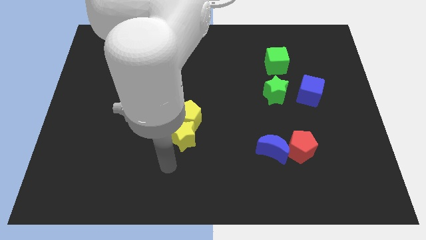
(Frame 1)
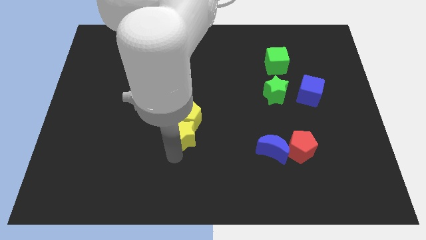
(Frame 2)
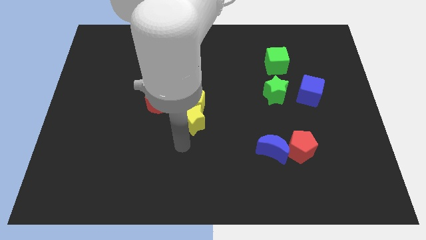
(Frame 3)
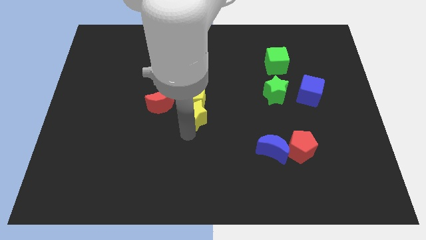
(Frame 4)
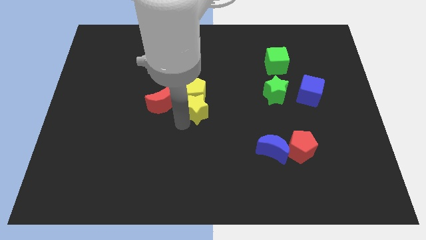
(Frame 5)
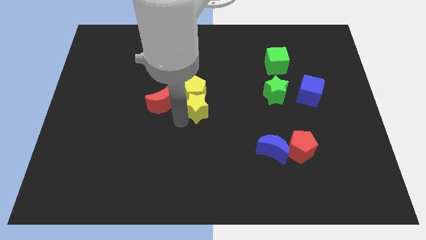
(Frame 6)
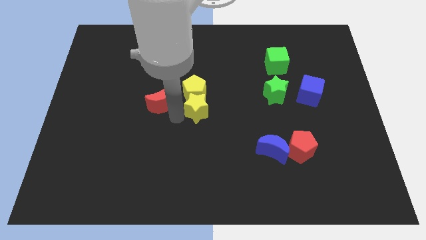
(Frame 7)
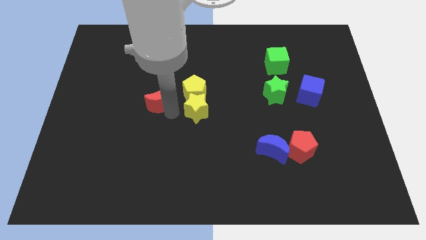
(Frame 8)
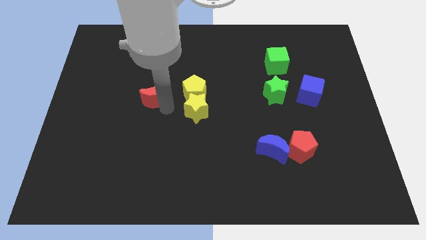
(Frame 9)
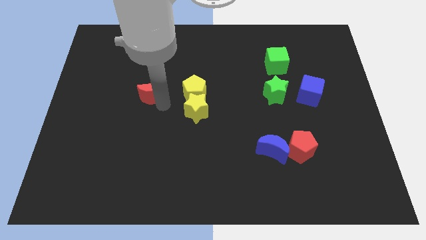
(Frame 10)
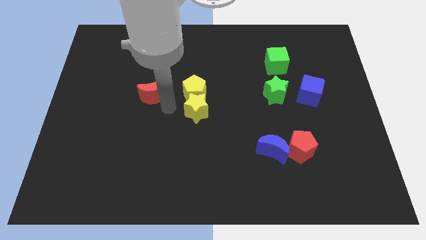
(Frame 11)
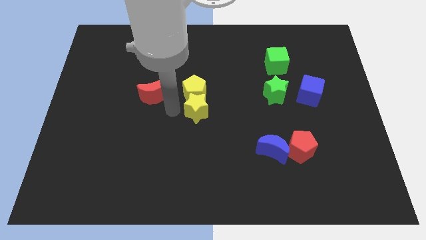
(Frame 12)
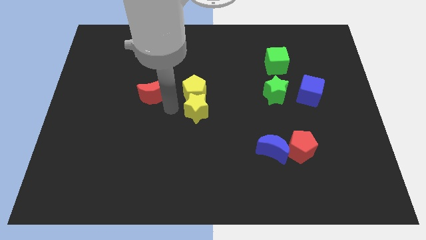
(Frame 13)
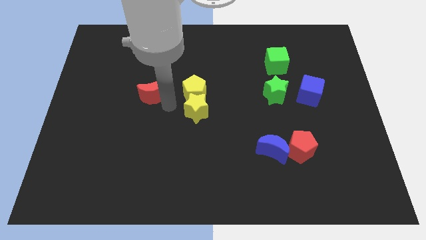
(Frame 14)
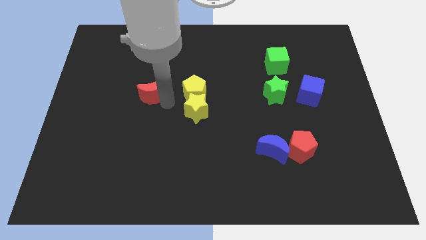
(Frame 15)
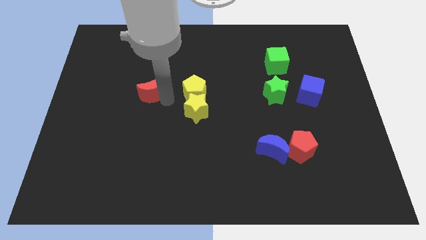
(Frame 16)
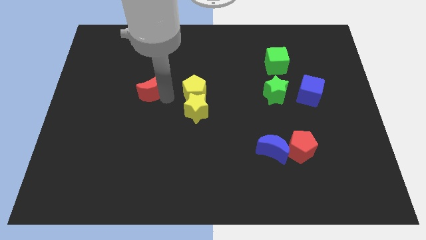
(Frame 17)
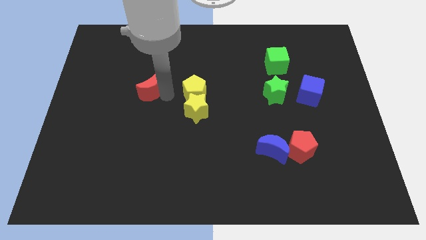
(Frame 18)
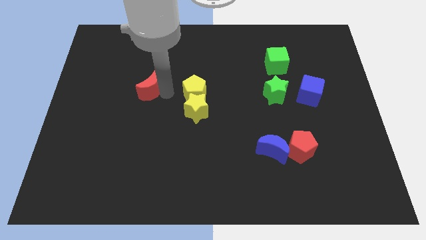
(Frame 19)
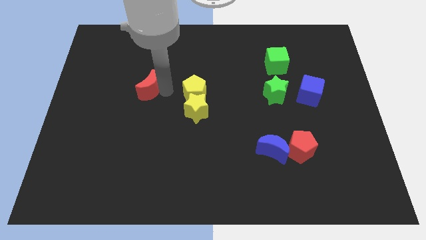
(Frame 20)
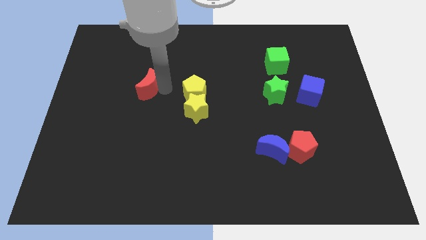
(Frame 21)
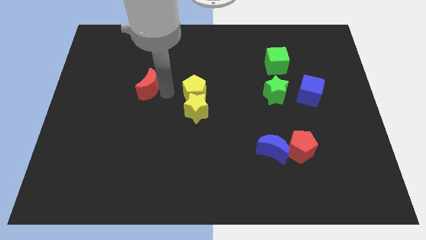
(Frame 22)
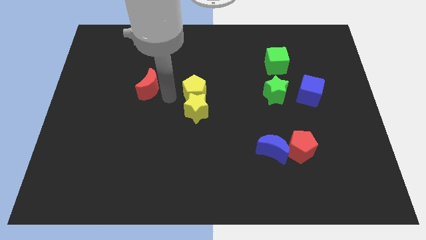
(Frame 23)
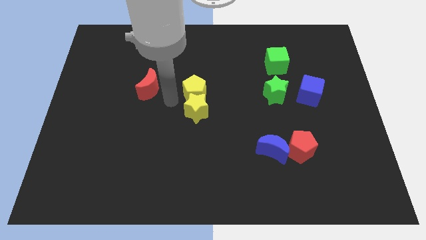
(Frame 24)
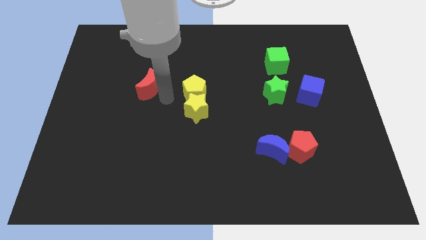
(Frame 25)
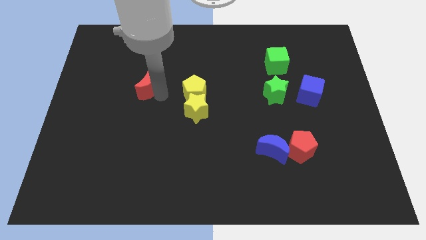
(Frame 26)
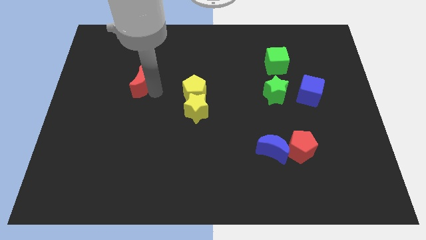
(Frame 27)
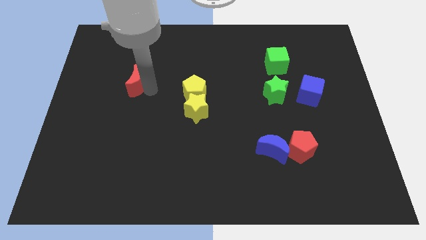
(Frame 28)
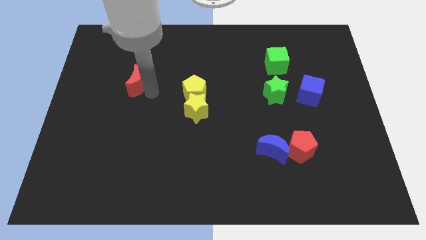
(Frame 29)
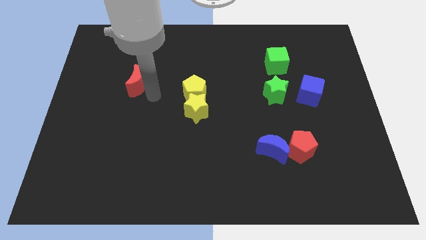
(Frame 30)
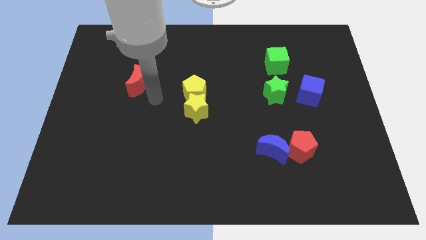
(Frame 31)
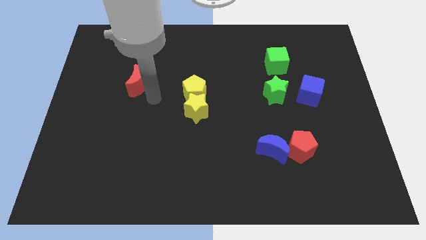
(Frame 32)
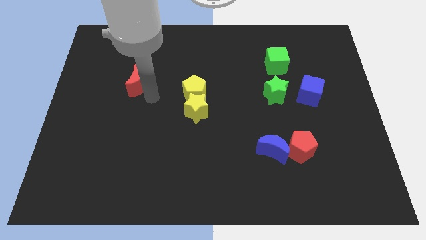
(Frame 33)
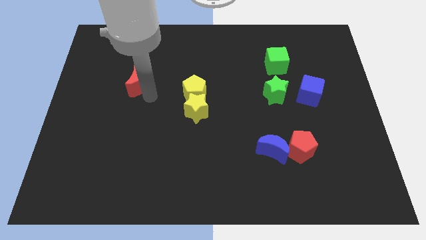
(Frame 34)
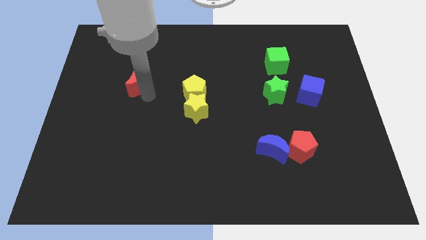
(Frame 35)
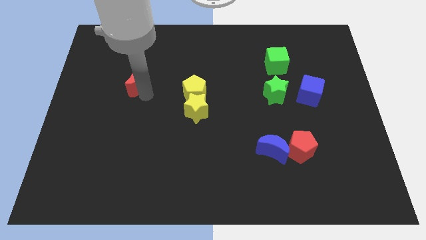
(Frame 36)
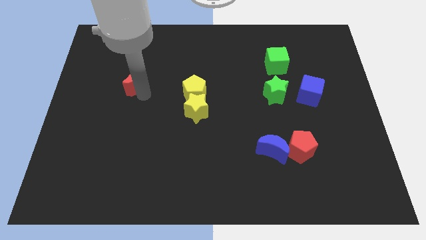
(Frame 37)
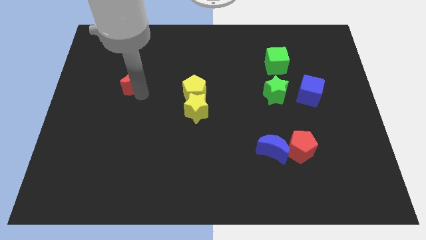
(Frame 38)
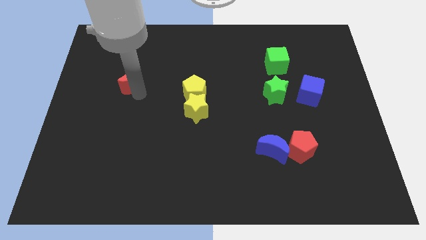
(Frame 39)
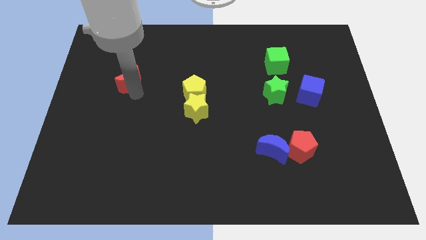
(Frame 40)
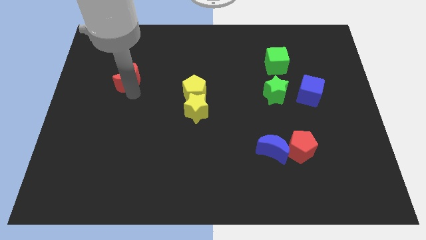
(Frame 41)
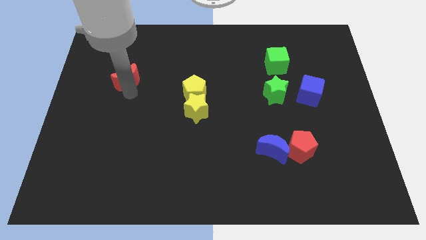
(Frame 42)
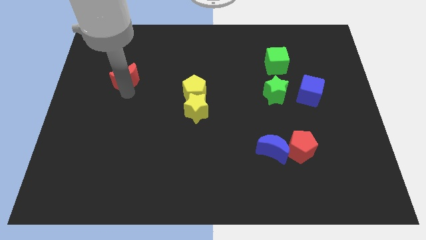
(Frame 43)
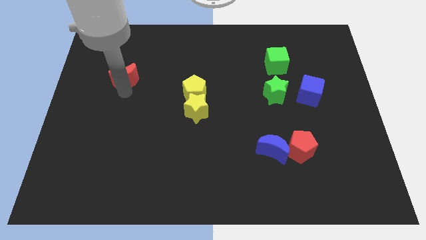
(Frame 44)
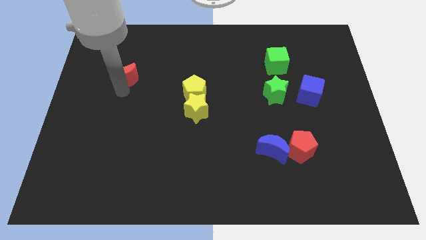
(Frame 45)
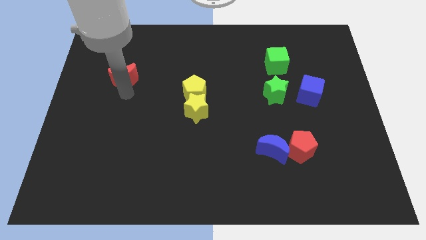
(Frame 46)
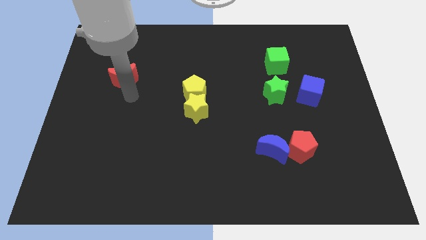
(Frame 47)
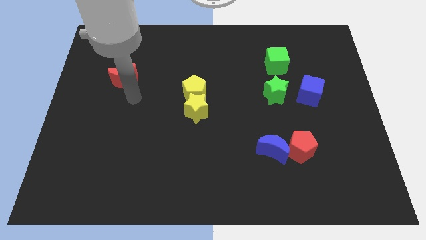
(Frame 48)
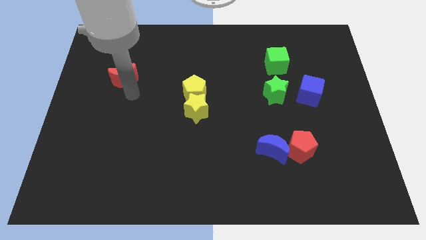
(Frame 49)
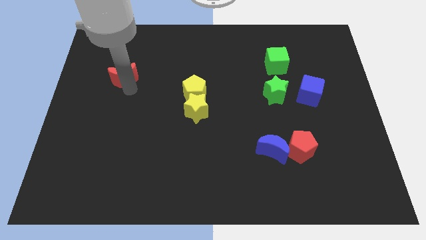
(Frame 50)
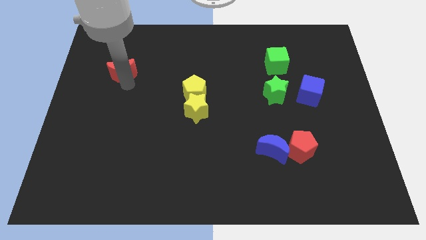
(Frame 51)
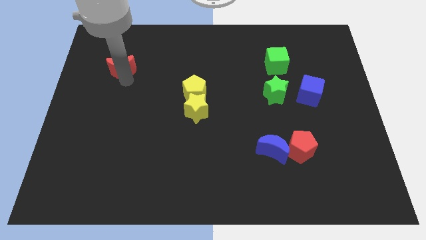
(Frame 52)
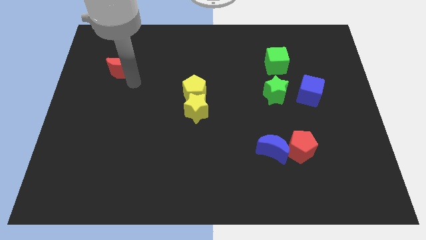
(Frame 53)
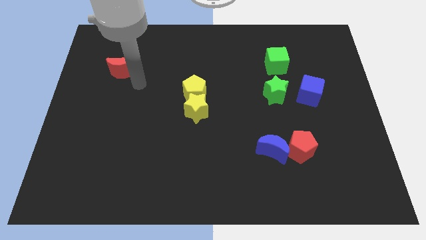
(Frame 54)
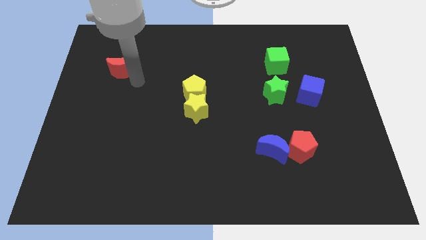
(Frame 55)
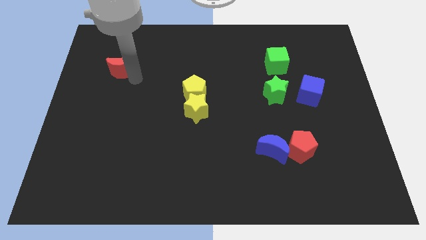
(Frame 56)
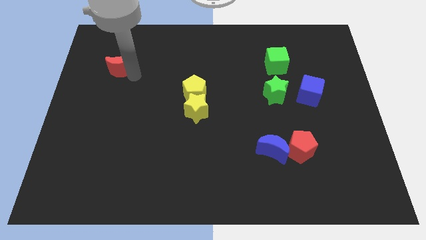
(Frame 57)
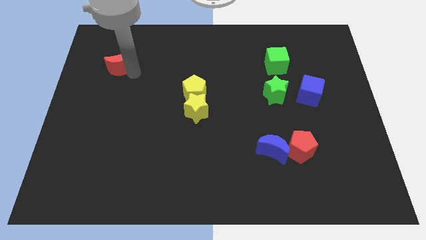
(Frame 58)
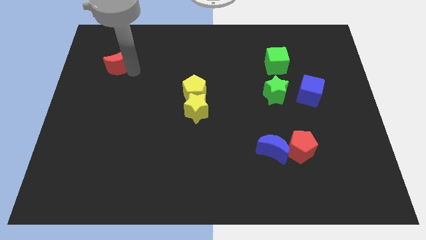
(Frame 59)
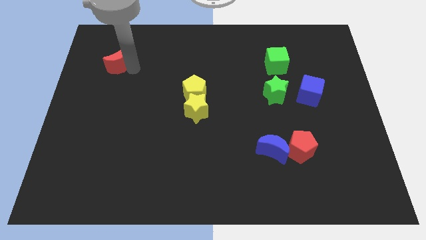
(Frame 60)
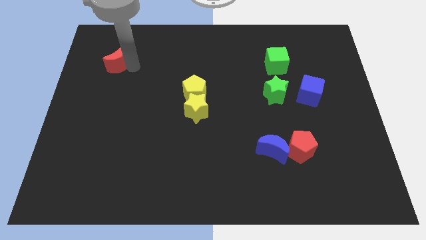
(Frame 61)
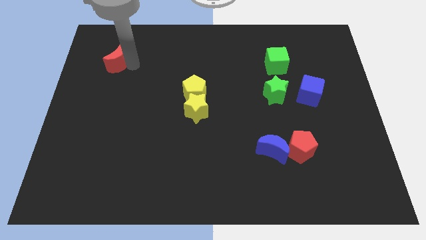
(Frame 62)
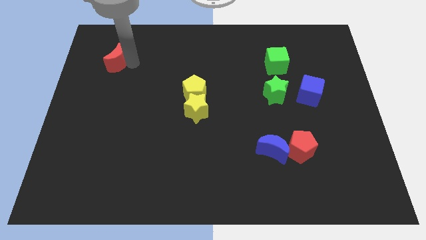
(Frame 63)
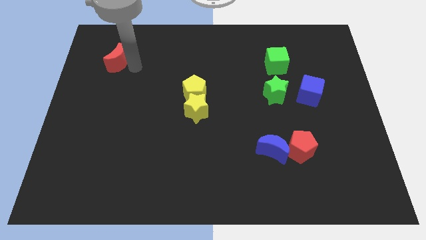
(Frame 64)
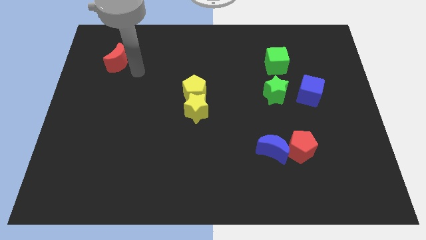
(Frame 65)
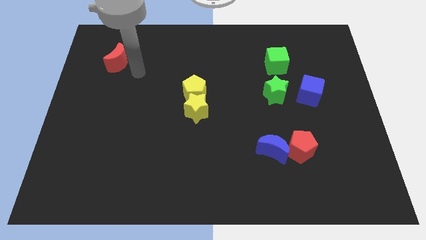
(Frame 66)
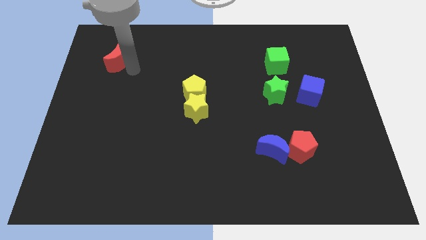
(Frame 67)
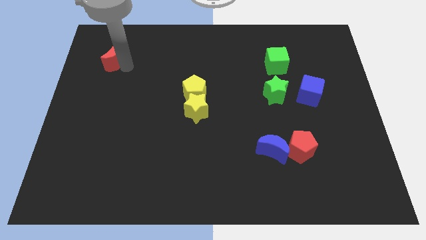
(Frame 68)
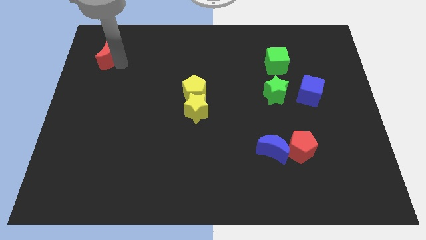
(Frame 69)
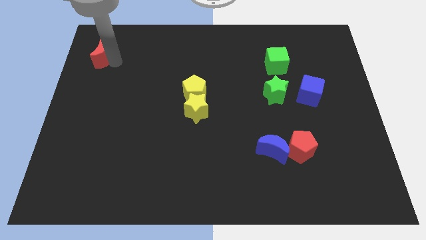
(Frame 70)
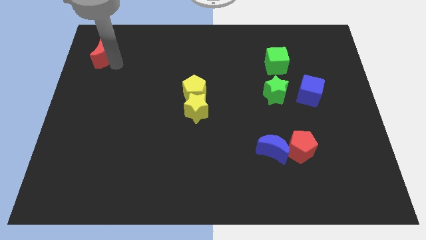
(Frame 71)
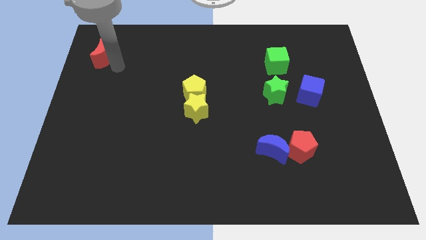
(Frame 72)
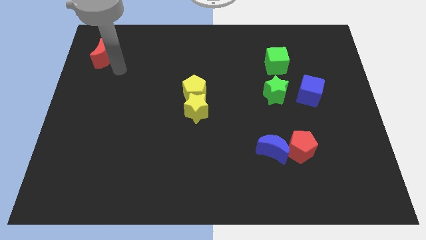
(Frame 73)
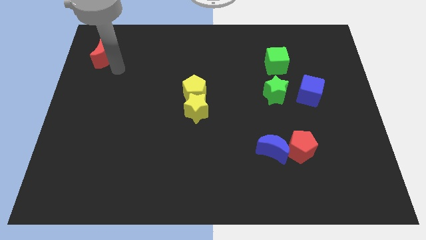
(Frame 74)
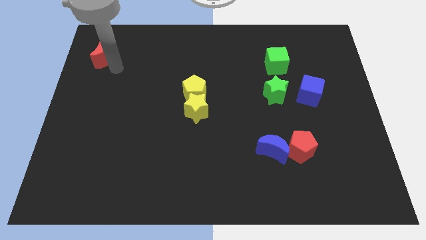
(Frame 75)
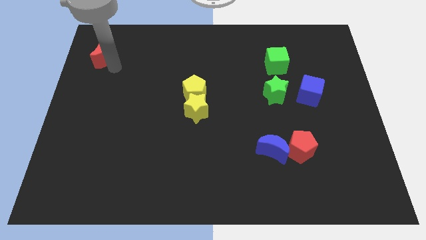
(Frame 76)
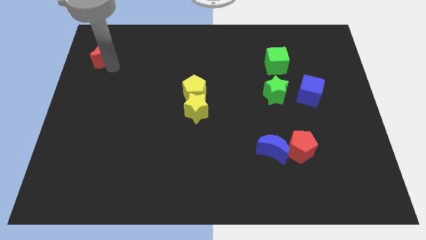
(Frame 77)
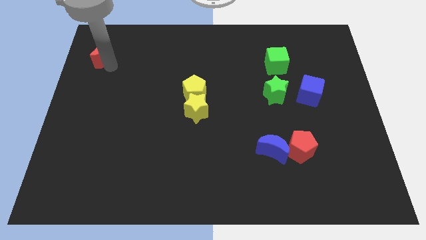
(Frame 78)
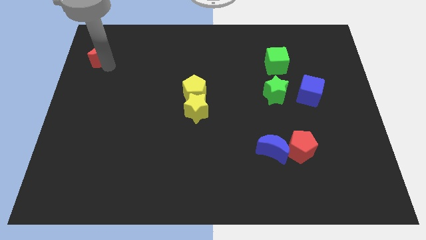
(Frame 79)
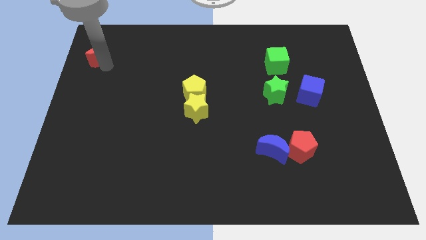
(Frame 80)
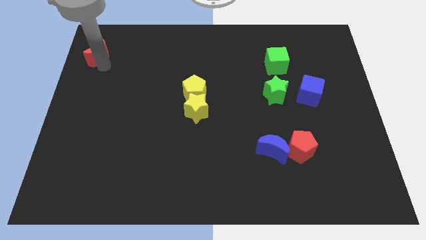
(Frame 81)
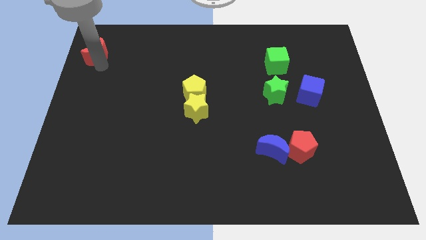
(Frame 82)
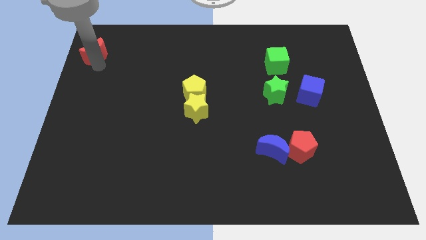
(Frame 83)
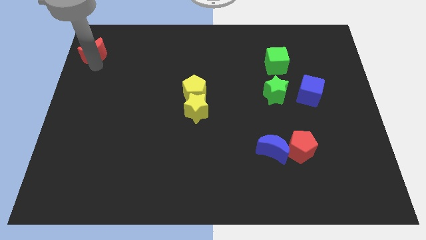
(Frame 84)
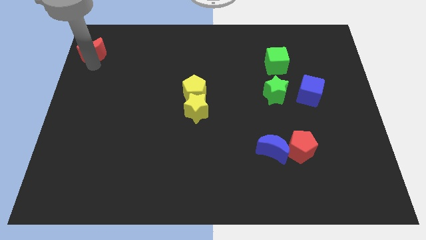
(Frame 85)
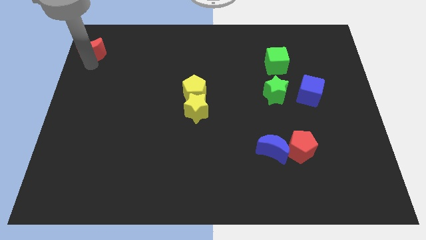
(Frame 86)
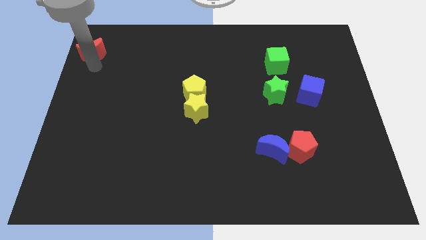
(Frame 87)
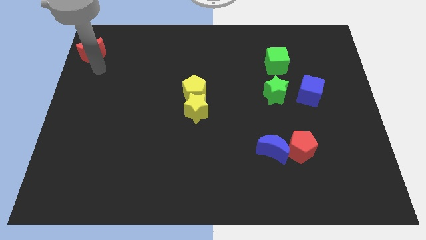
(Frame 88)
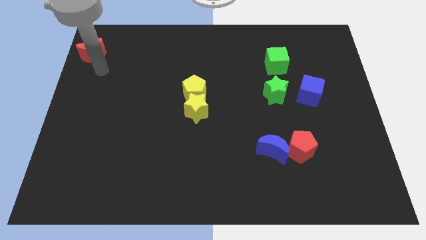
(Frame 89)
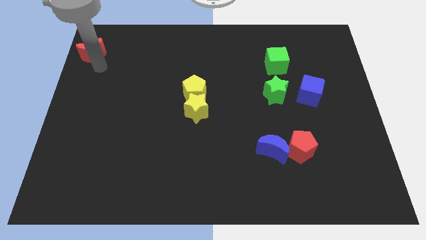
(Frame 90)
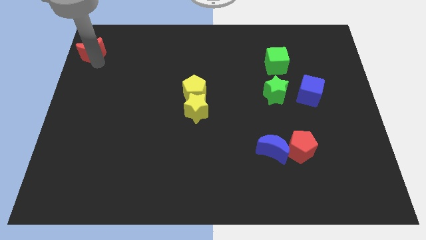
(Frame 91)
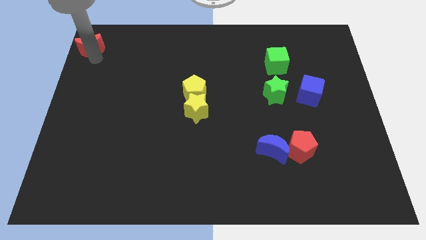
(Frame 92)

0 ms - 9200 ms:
slide the red moon to the top left of the board
